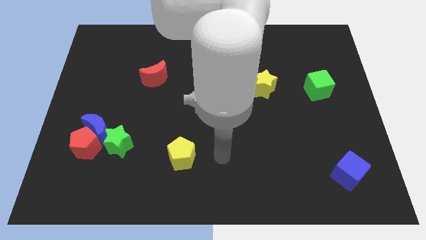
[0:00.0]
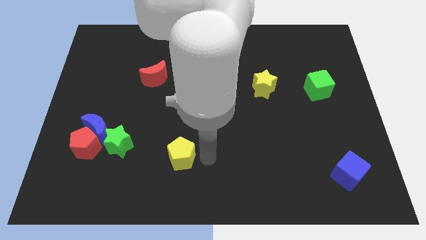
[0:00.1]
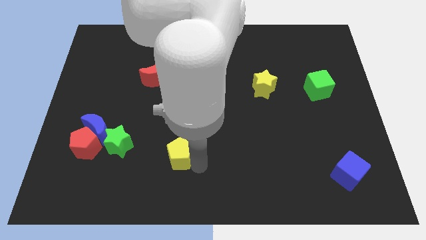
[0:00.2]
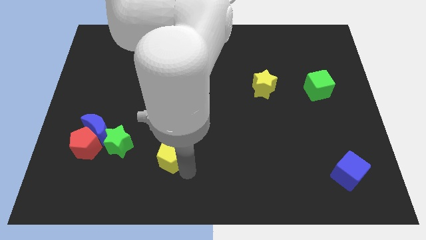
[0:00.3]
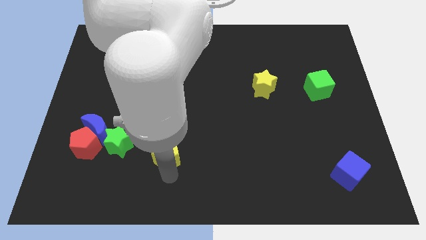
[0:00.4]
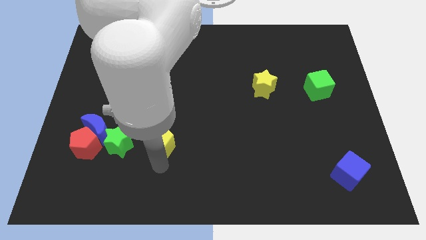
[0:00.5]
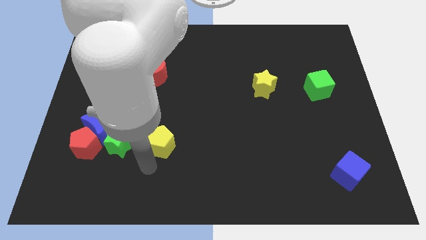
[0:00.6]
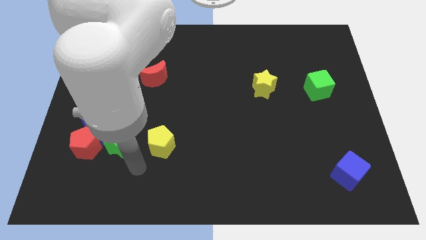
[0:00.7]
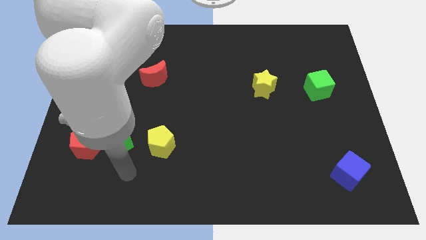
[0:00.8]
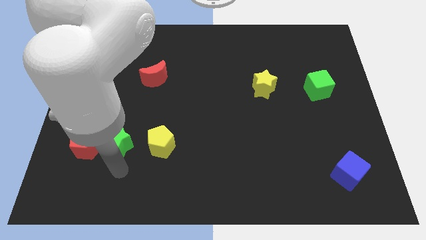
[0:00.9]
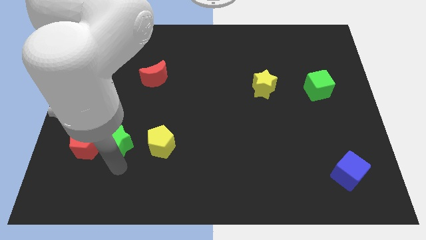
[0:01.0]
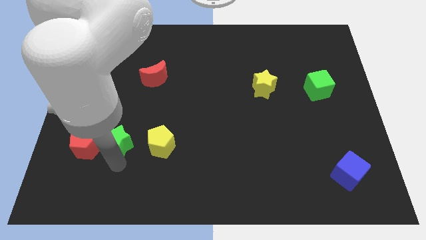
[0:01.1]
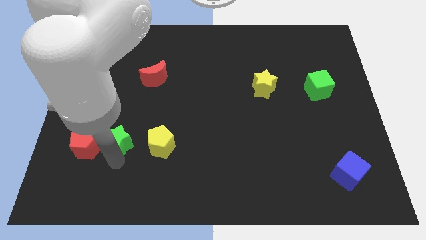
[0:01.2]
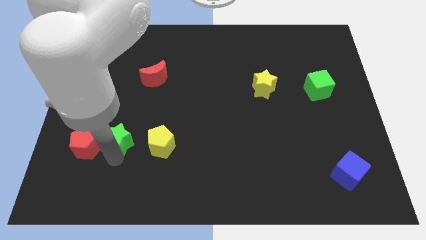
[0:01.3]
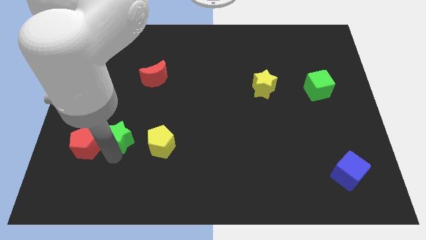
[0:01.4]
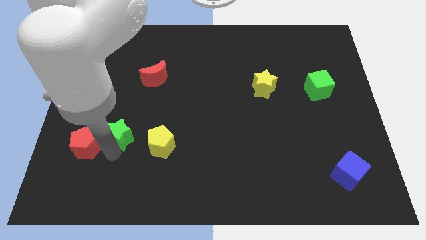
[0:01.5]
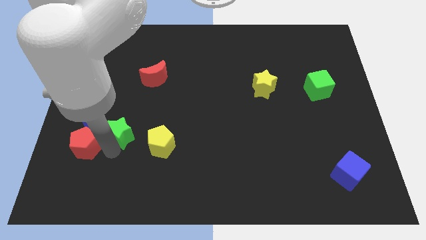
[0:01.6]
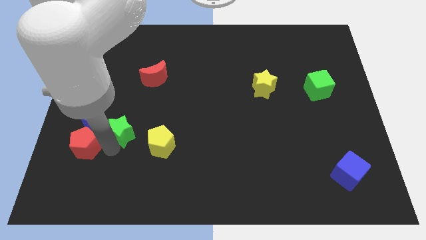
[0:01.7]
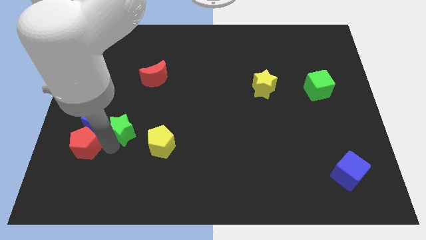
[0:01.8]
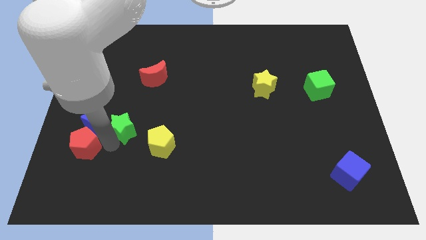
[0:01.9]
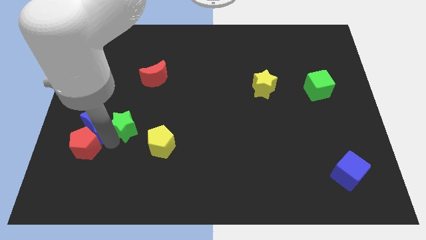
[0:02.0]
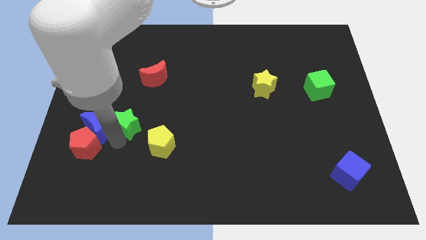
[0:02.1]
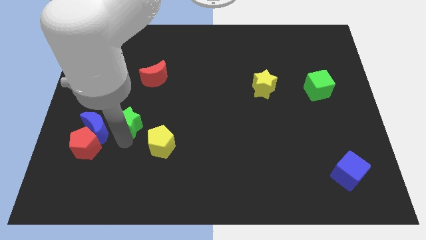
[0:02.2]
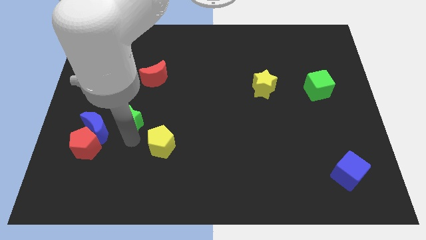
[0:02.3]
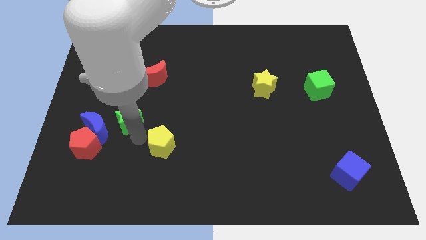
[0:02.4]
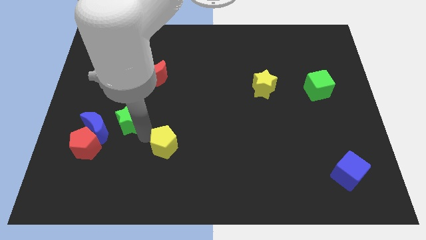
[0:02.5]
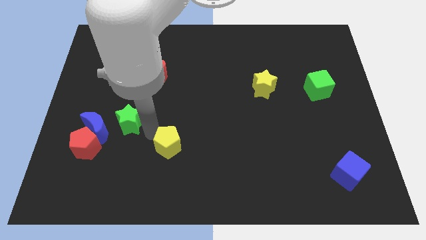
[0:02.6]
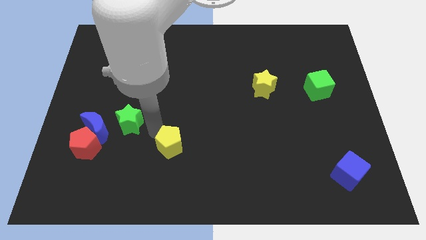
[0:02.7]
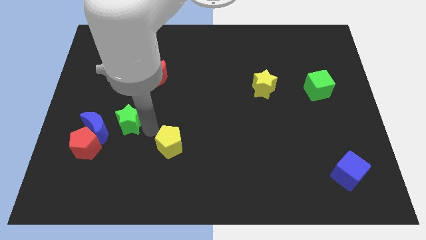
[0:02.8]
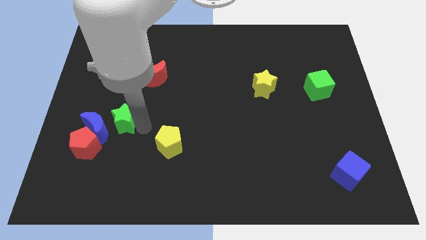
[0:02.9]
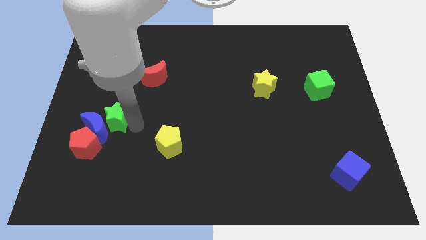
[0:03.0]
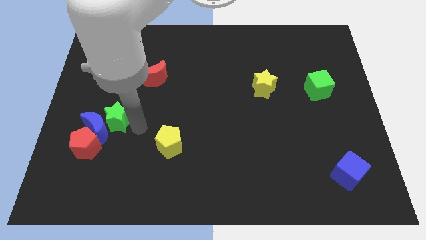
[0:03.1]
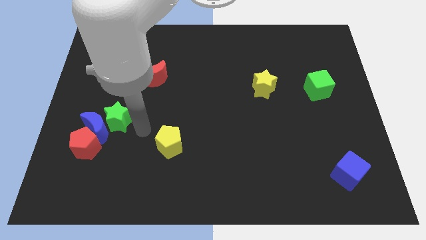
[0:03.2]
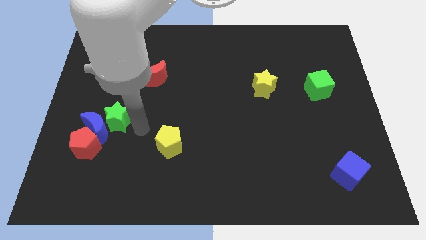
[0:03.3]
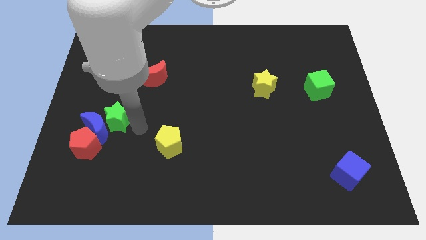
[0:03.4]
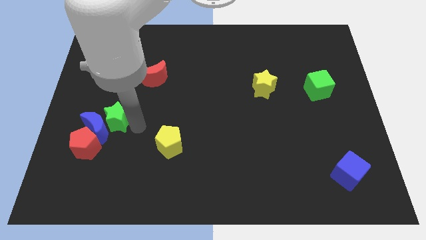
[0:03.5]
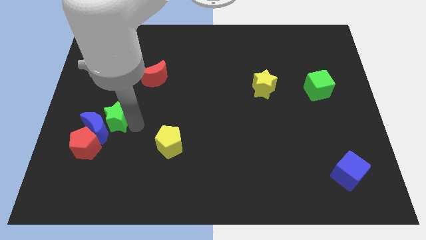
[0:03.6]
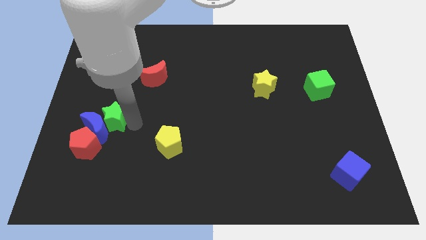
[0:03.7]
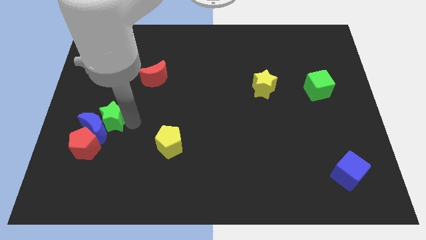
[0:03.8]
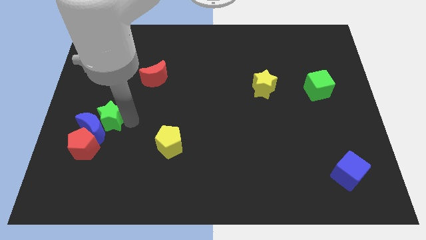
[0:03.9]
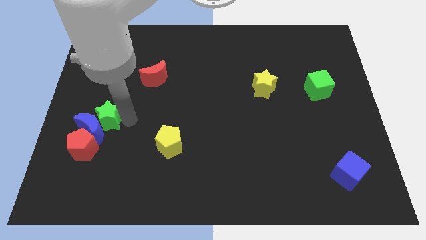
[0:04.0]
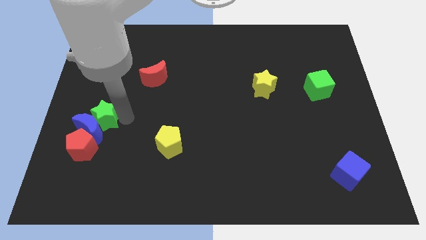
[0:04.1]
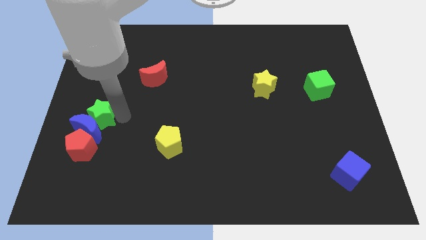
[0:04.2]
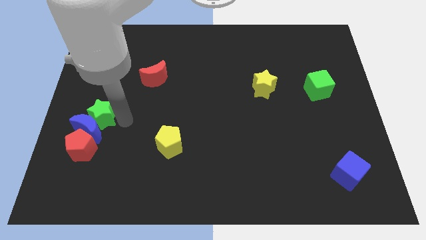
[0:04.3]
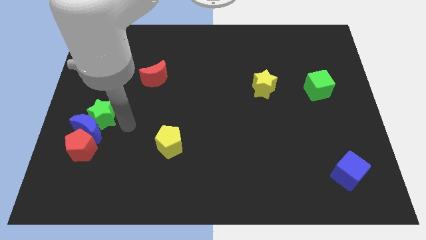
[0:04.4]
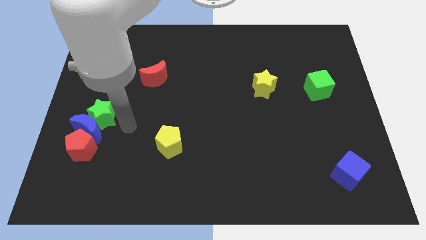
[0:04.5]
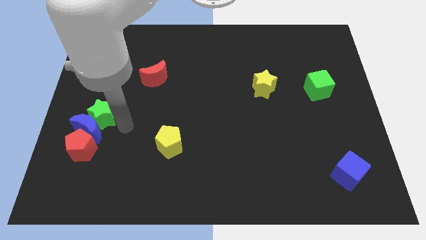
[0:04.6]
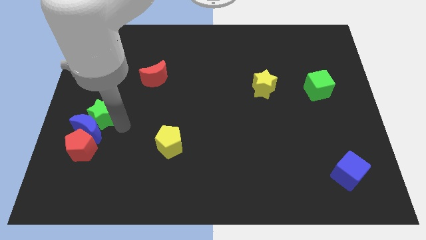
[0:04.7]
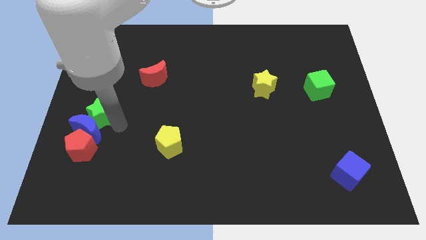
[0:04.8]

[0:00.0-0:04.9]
slide the green star to the center left

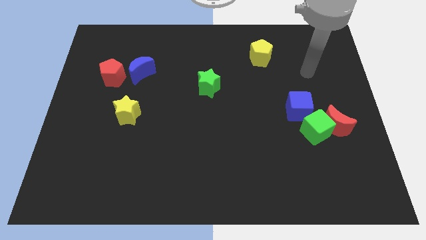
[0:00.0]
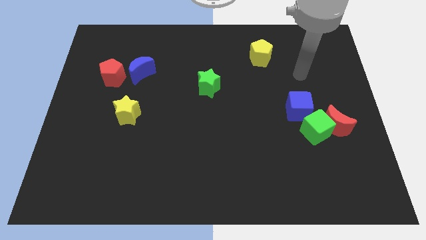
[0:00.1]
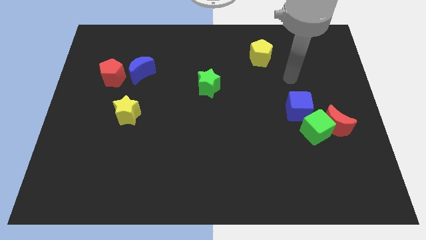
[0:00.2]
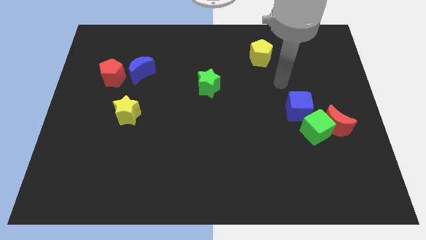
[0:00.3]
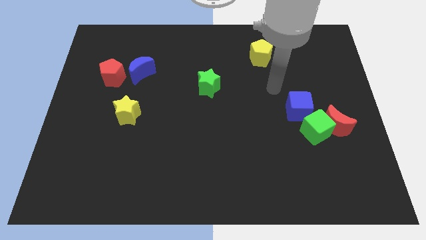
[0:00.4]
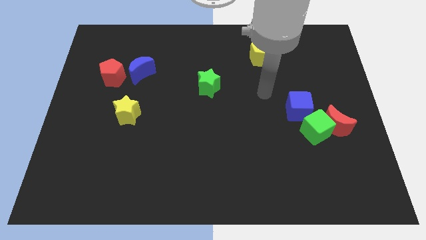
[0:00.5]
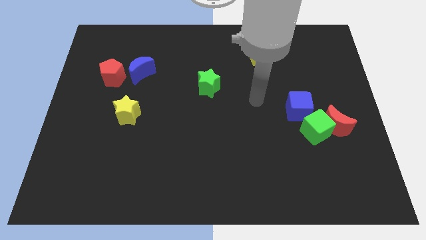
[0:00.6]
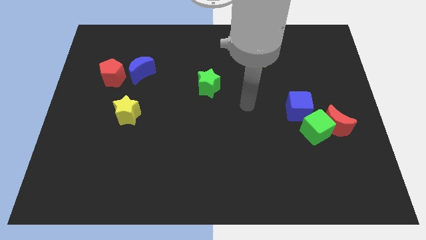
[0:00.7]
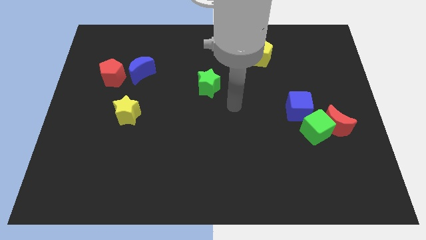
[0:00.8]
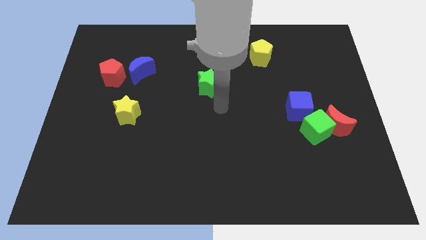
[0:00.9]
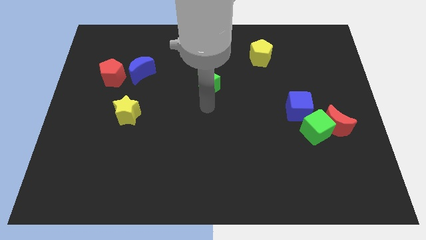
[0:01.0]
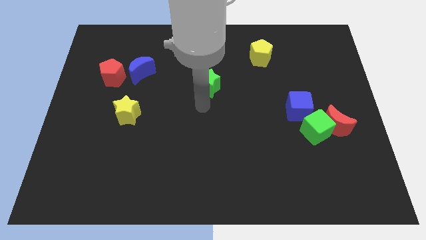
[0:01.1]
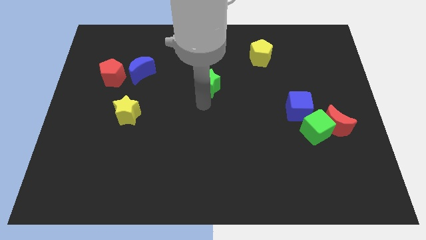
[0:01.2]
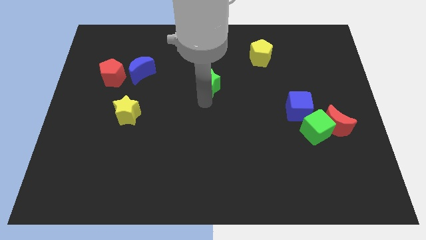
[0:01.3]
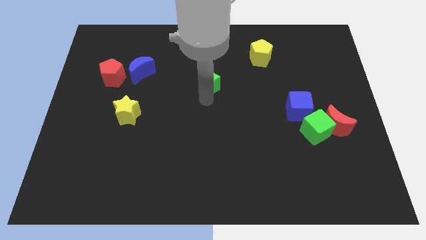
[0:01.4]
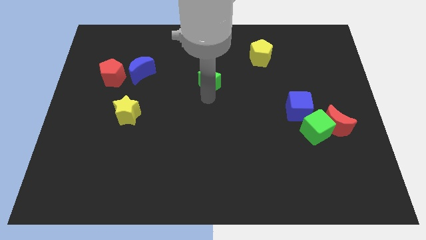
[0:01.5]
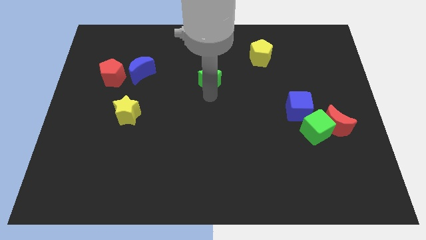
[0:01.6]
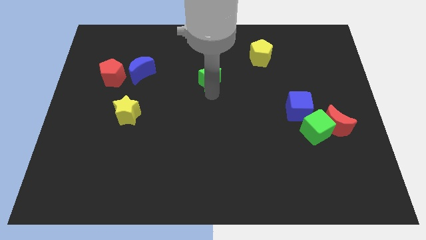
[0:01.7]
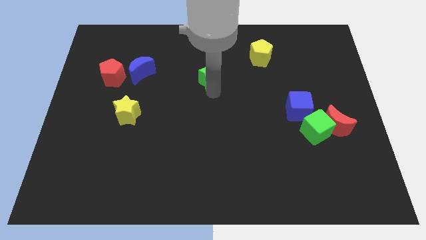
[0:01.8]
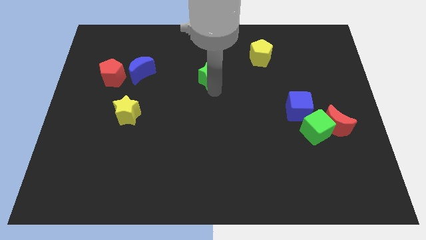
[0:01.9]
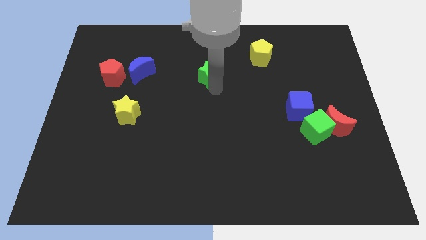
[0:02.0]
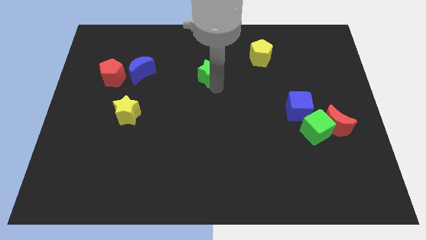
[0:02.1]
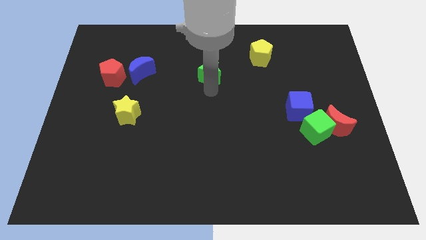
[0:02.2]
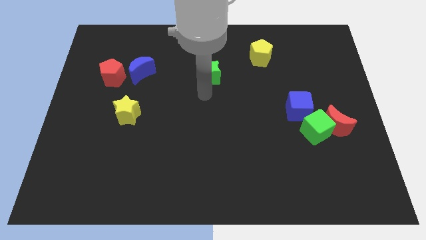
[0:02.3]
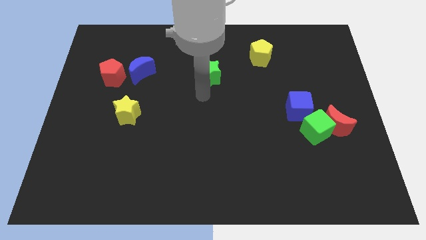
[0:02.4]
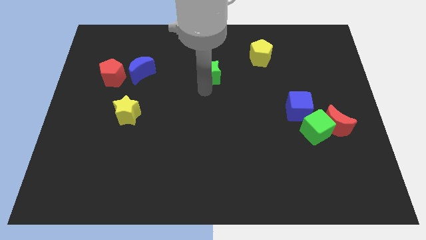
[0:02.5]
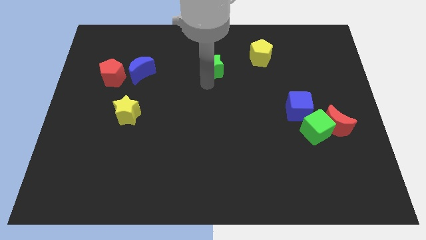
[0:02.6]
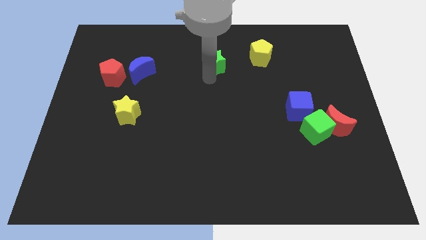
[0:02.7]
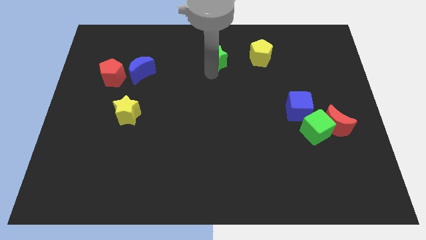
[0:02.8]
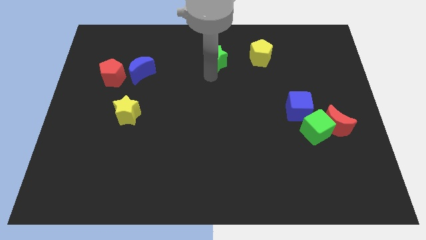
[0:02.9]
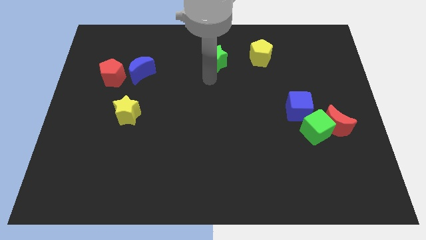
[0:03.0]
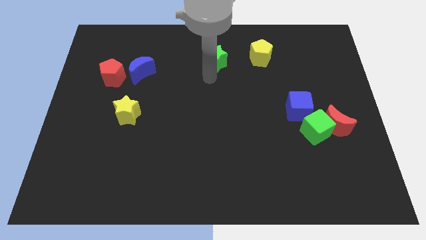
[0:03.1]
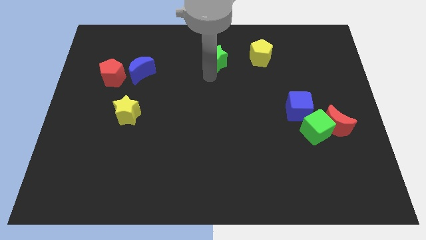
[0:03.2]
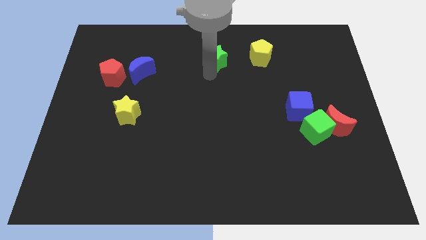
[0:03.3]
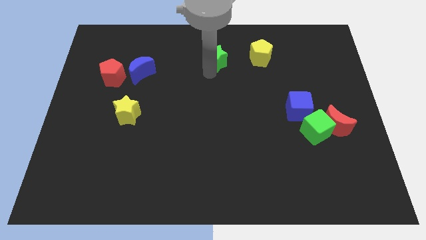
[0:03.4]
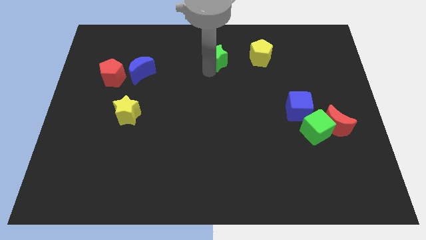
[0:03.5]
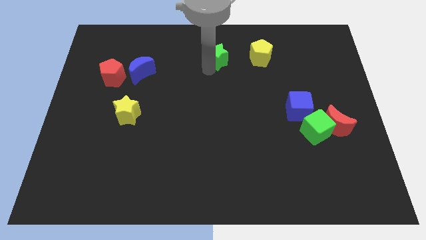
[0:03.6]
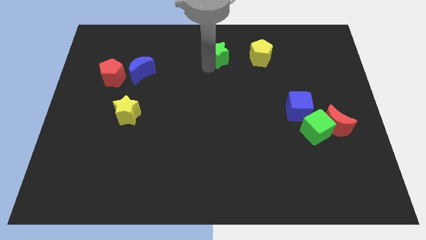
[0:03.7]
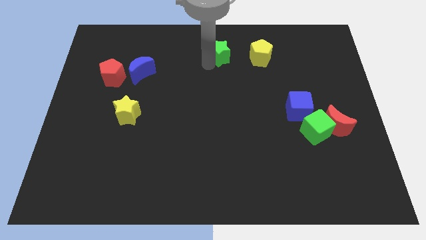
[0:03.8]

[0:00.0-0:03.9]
push the green star to the towards your base
